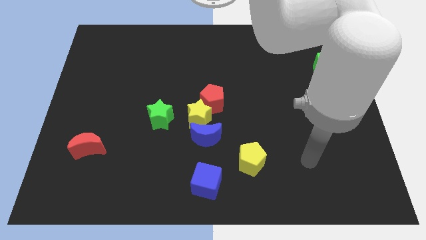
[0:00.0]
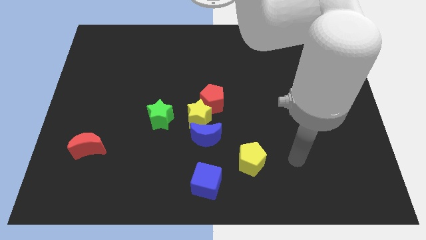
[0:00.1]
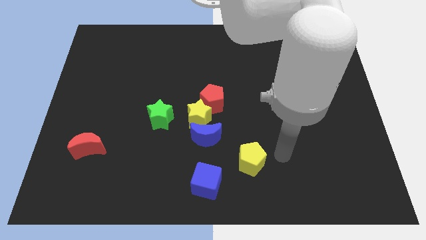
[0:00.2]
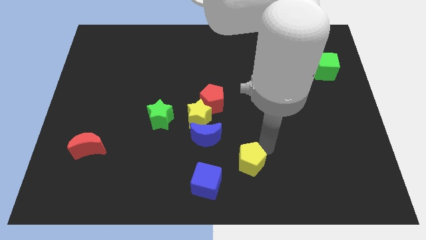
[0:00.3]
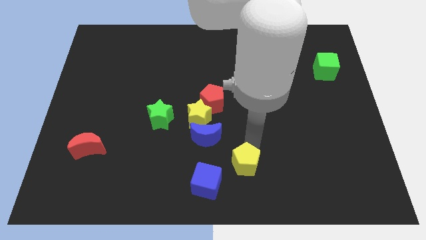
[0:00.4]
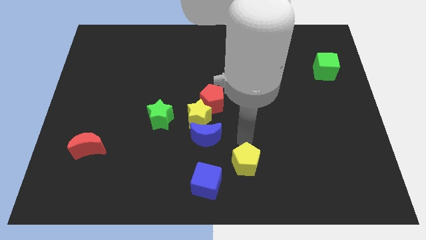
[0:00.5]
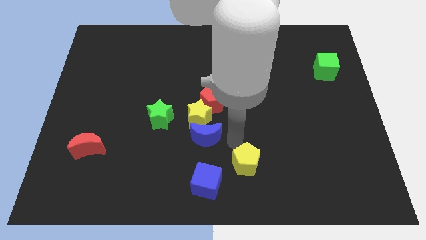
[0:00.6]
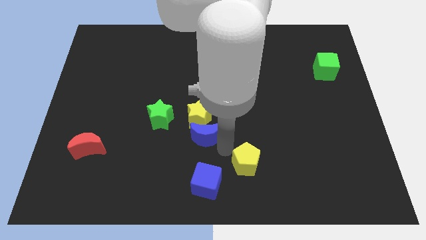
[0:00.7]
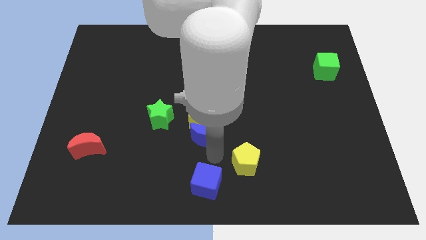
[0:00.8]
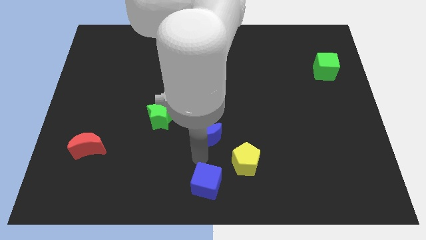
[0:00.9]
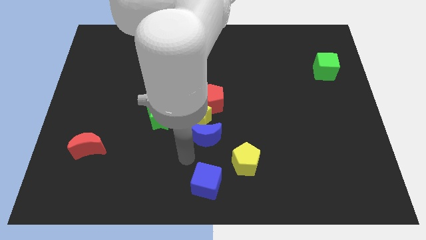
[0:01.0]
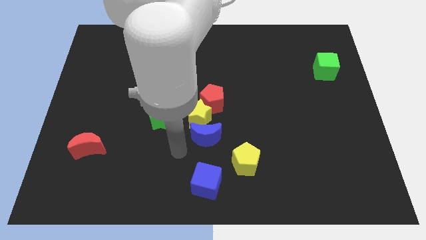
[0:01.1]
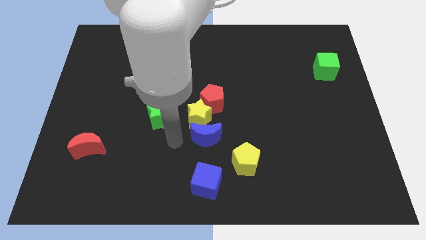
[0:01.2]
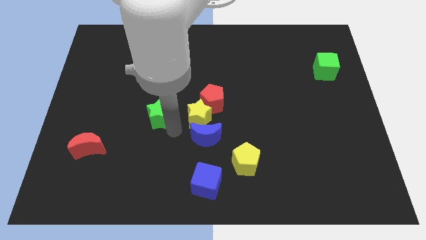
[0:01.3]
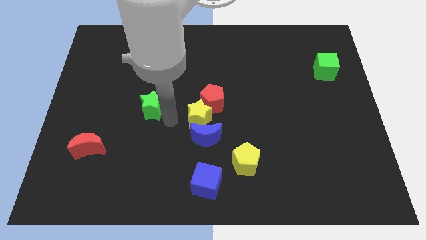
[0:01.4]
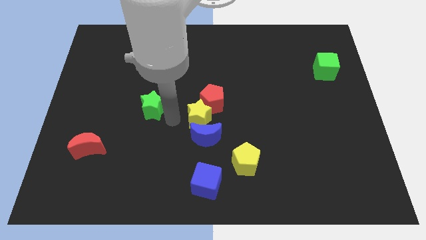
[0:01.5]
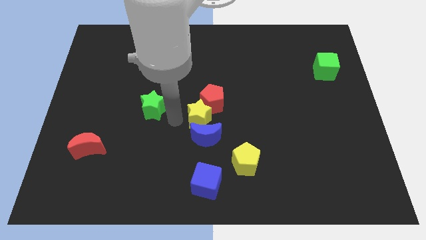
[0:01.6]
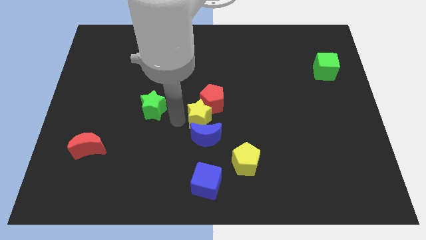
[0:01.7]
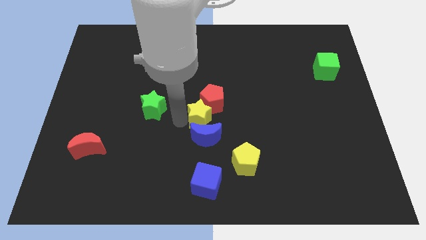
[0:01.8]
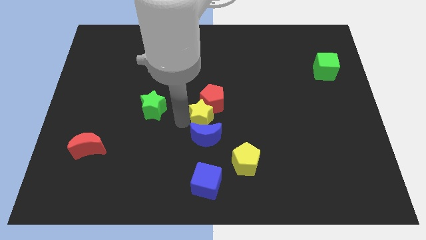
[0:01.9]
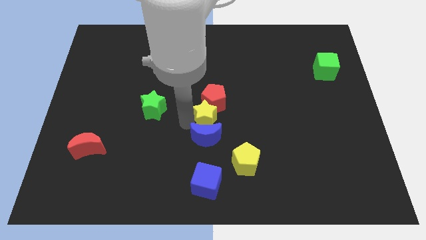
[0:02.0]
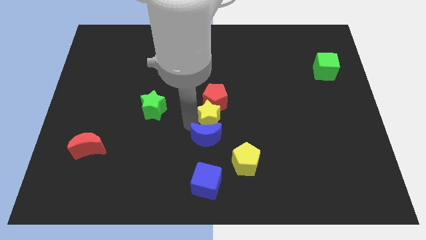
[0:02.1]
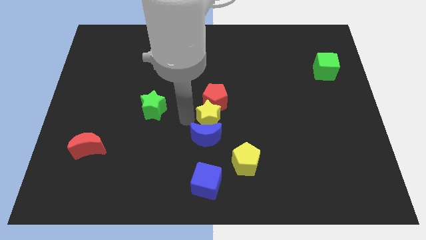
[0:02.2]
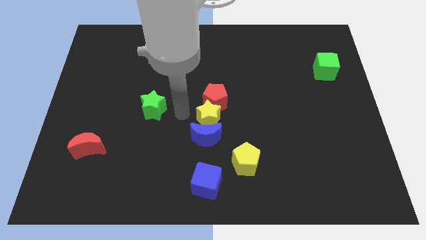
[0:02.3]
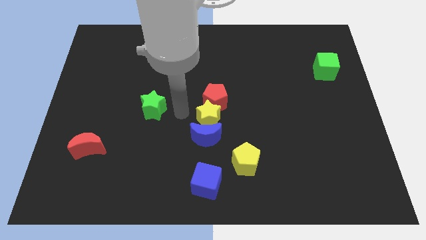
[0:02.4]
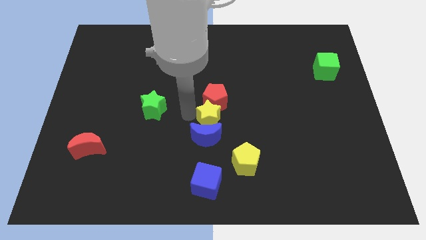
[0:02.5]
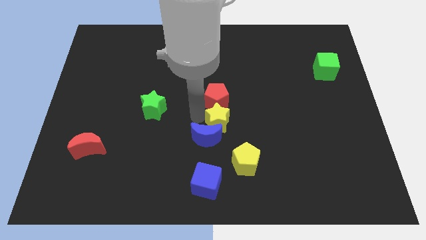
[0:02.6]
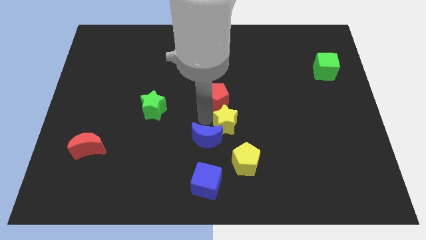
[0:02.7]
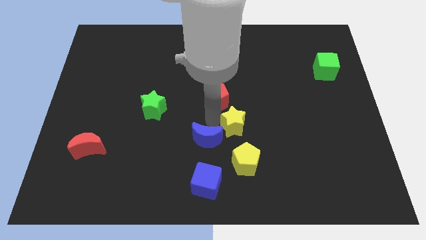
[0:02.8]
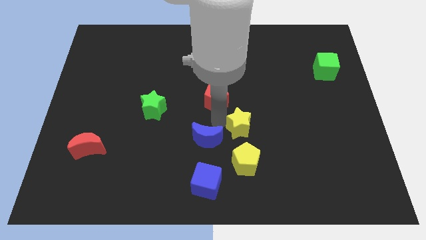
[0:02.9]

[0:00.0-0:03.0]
pull the yellow star apart from the group of blocks

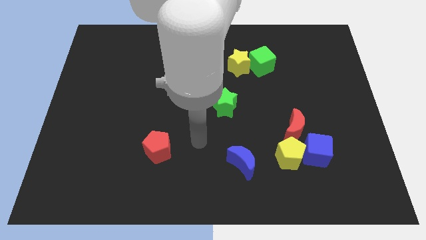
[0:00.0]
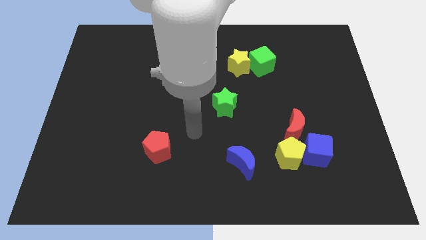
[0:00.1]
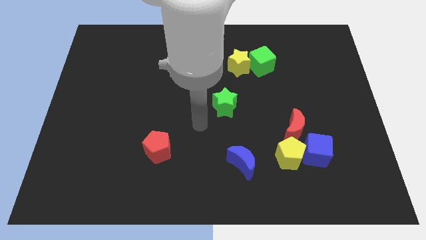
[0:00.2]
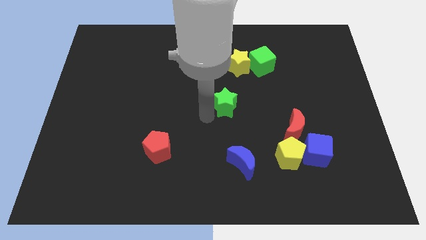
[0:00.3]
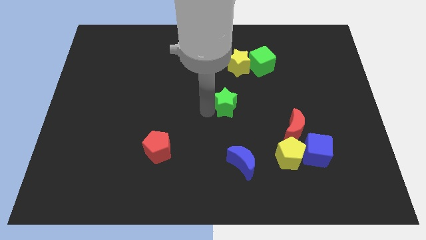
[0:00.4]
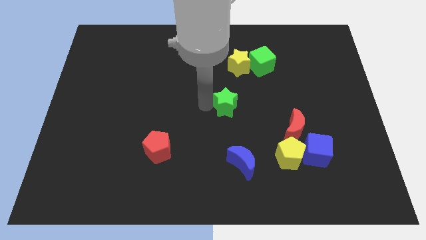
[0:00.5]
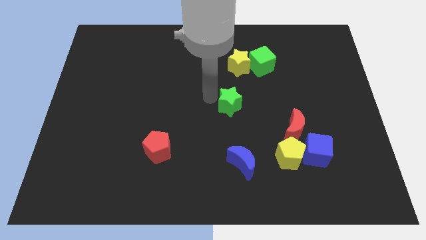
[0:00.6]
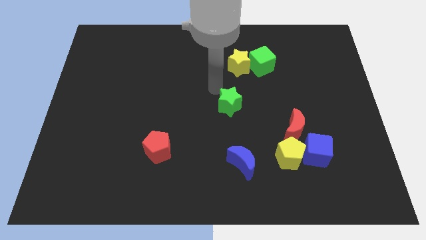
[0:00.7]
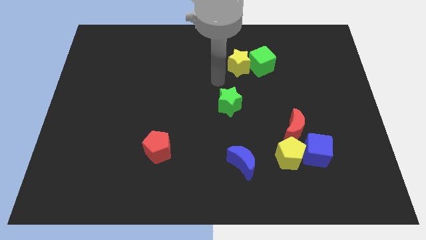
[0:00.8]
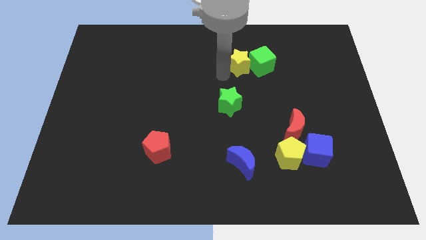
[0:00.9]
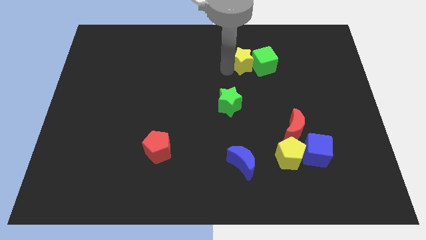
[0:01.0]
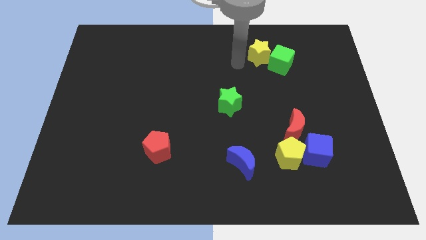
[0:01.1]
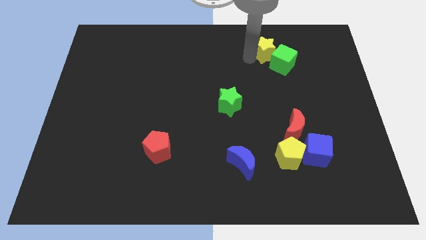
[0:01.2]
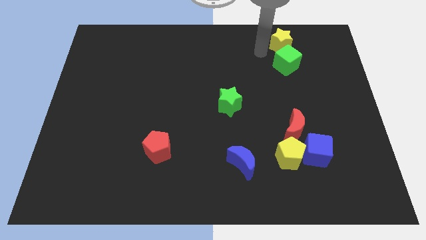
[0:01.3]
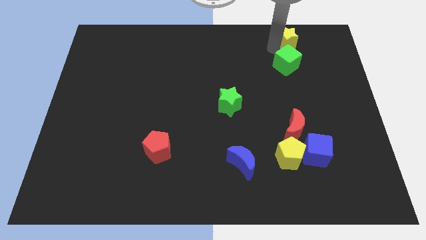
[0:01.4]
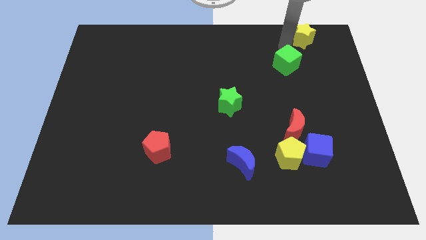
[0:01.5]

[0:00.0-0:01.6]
separate the green cube from the yellow star

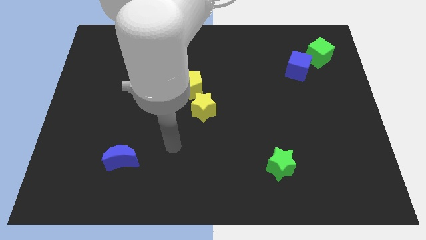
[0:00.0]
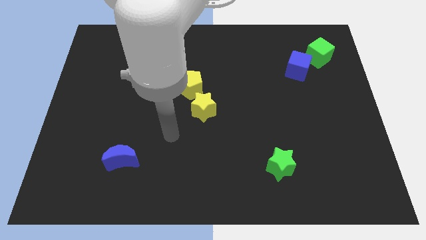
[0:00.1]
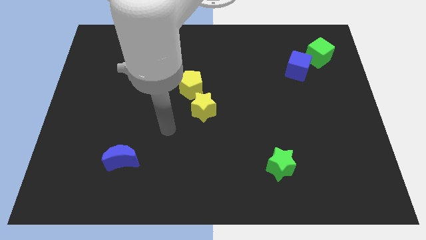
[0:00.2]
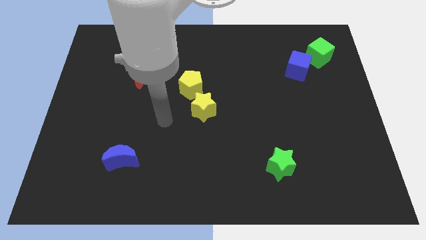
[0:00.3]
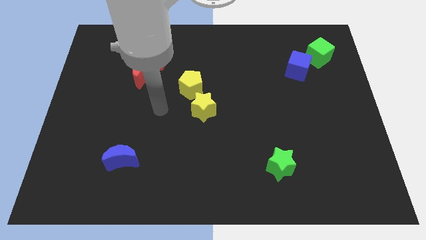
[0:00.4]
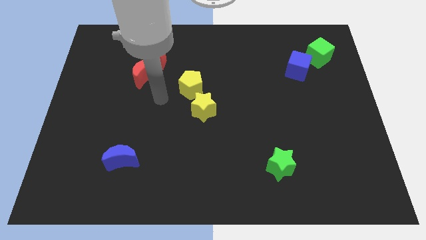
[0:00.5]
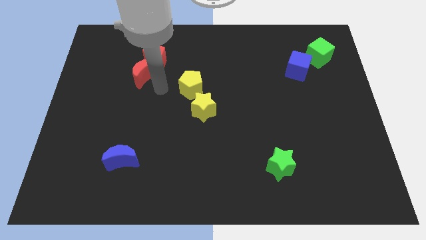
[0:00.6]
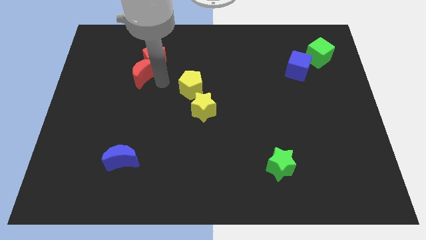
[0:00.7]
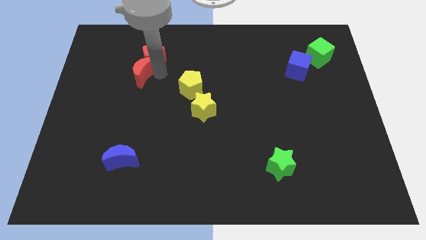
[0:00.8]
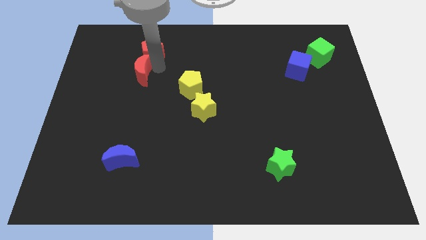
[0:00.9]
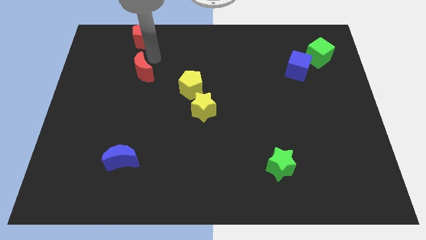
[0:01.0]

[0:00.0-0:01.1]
move the red moon away from the red pentagon

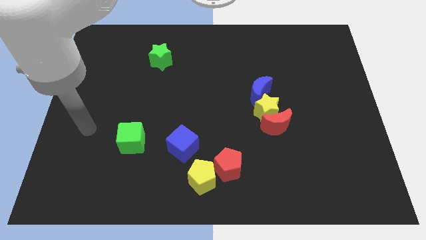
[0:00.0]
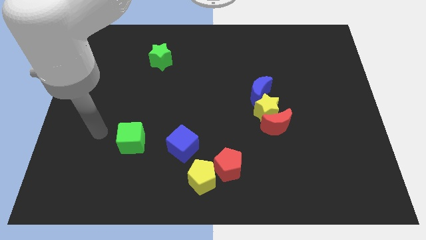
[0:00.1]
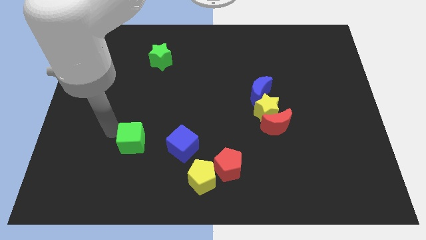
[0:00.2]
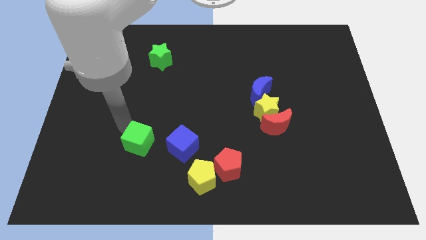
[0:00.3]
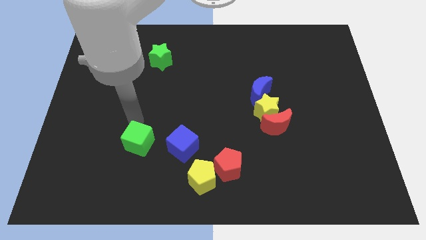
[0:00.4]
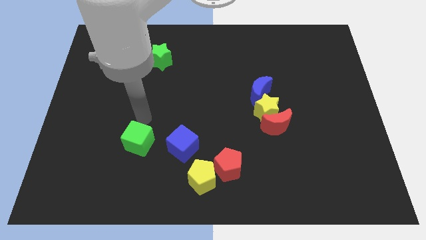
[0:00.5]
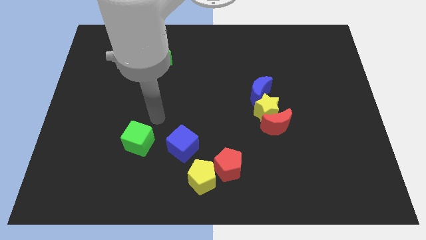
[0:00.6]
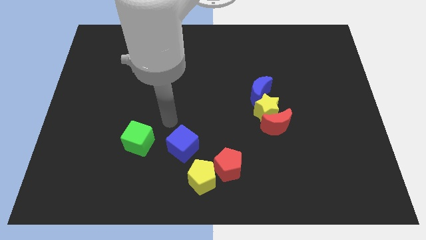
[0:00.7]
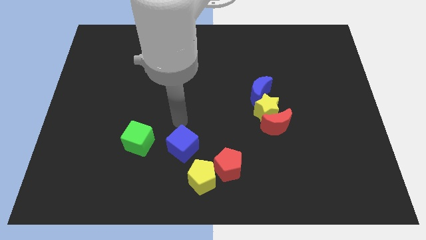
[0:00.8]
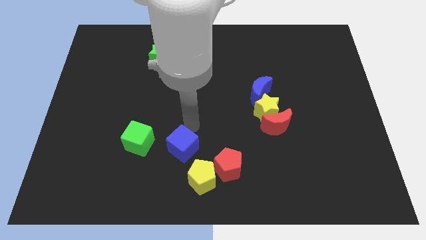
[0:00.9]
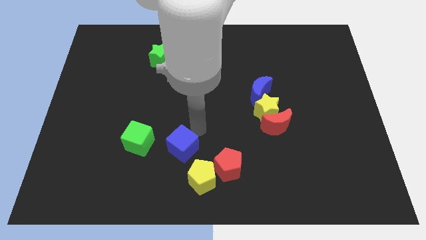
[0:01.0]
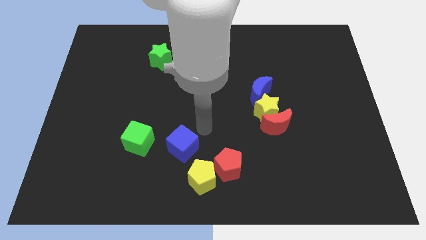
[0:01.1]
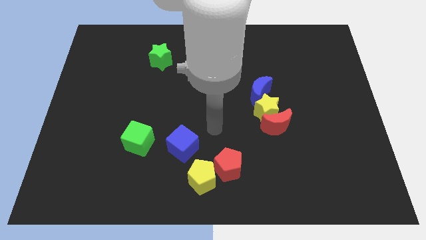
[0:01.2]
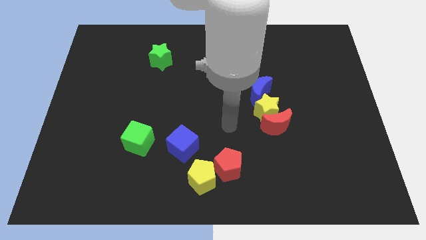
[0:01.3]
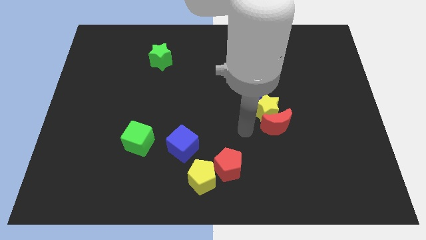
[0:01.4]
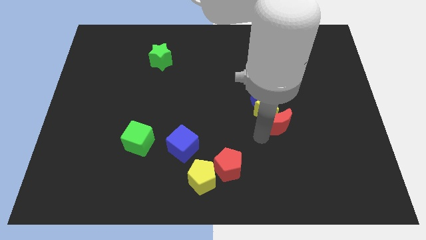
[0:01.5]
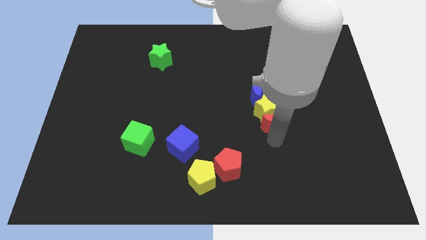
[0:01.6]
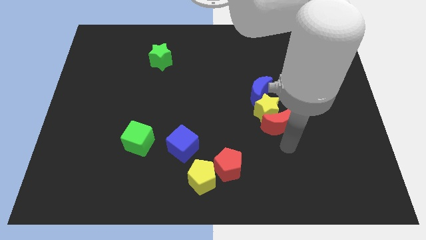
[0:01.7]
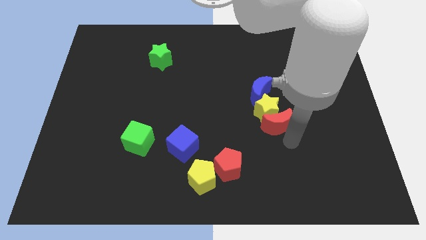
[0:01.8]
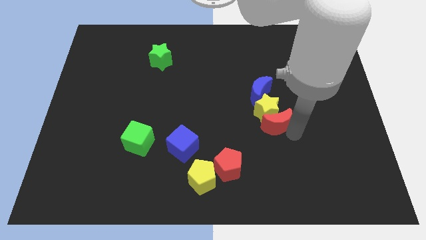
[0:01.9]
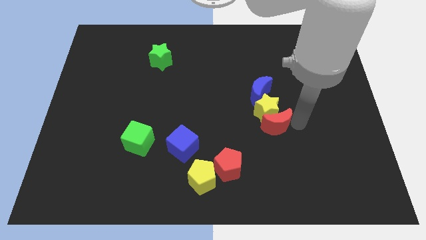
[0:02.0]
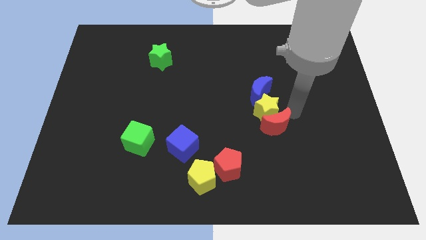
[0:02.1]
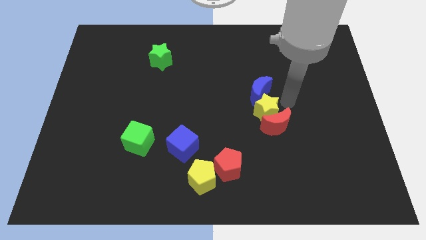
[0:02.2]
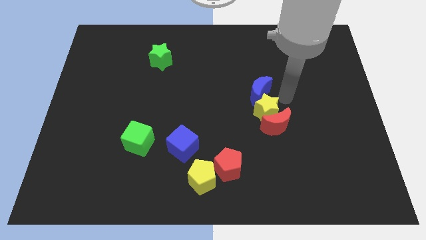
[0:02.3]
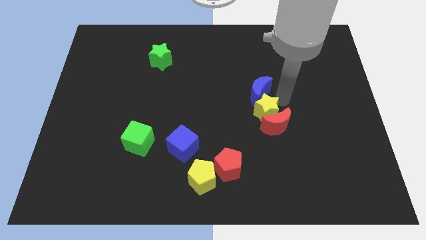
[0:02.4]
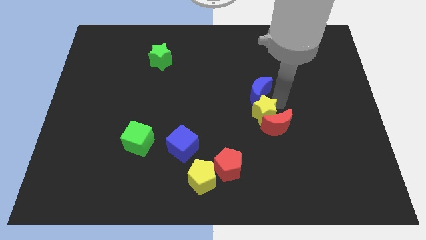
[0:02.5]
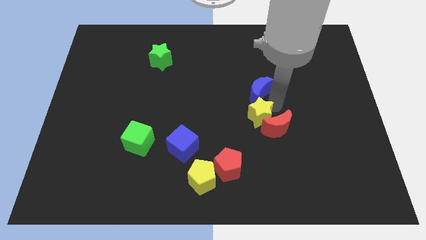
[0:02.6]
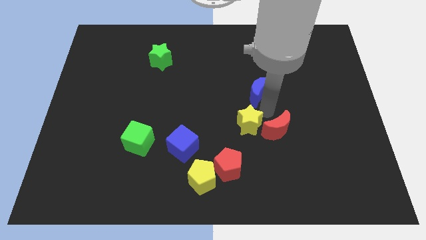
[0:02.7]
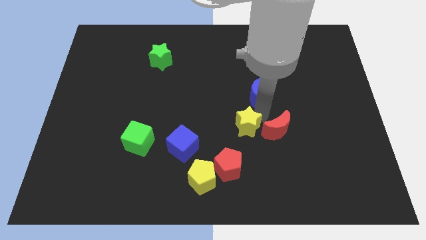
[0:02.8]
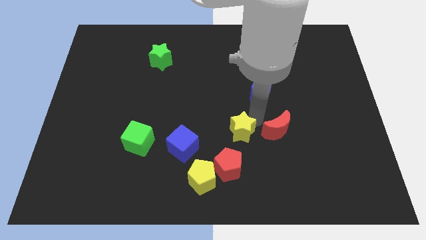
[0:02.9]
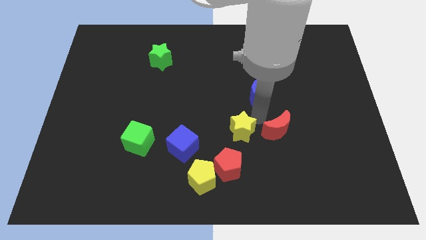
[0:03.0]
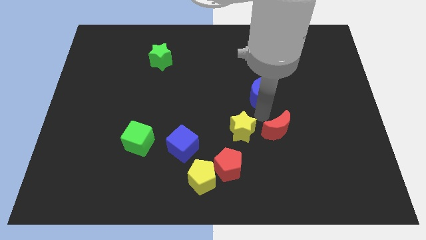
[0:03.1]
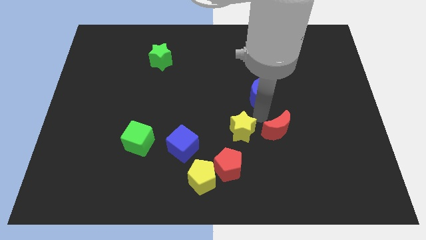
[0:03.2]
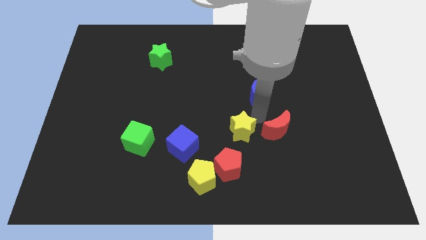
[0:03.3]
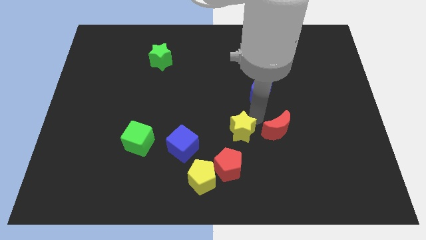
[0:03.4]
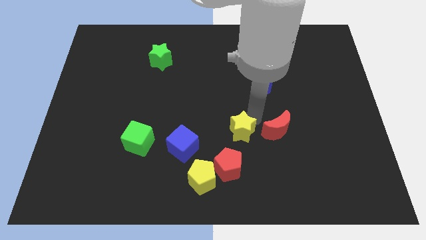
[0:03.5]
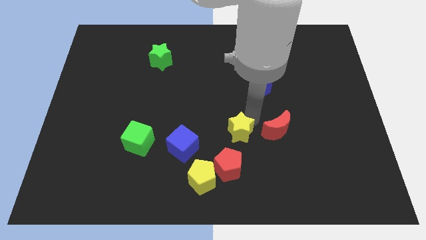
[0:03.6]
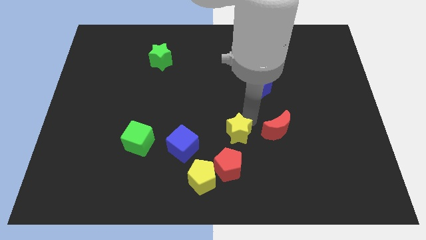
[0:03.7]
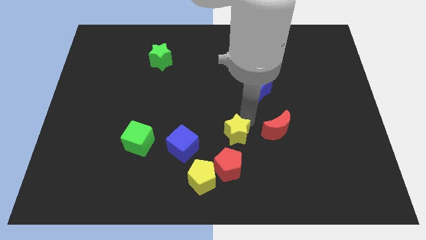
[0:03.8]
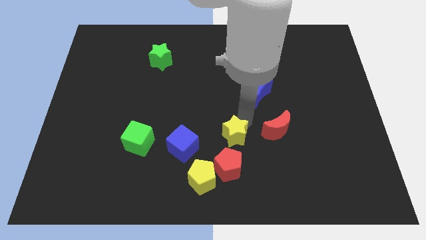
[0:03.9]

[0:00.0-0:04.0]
separate the yellow star from the red moon and blue moon
